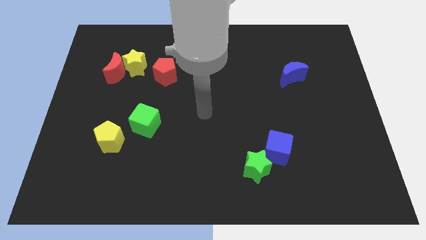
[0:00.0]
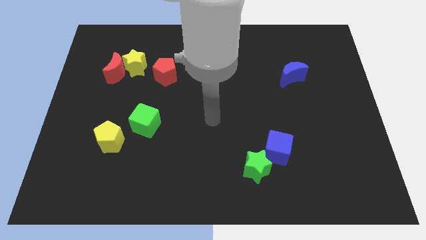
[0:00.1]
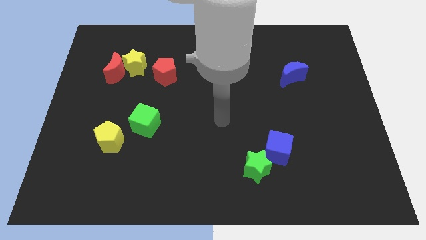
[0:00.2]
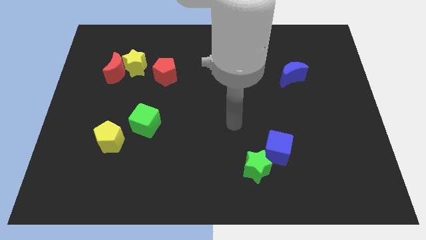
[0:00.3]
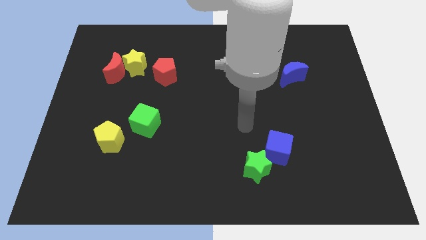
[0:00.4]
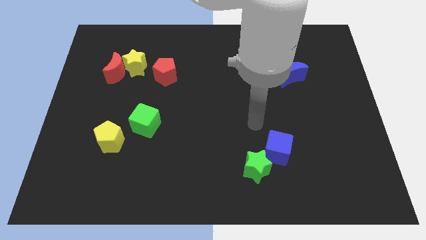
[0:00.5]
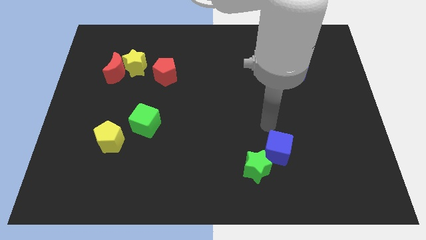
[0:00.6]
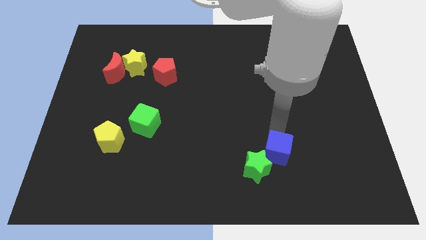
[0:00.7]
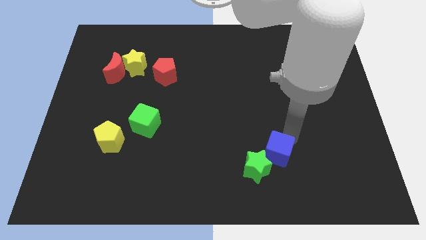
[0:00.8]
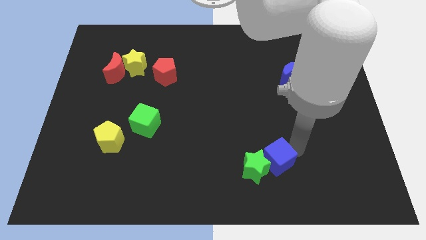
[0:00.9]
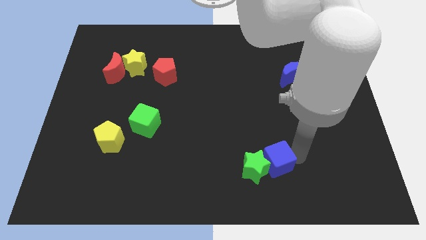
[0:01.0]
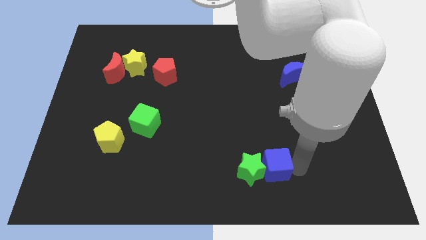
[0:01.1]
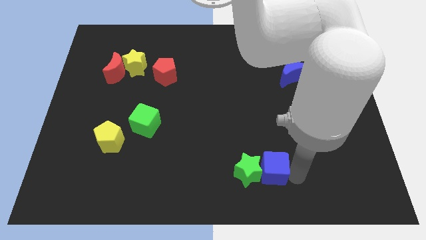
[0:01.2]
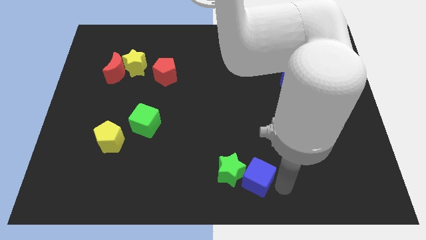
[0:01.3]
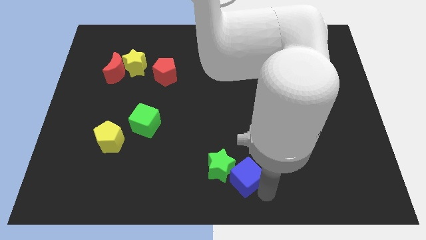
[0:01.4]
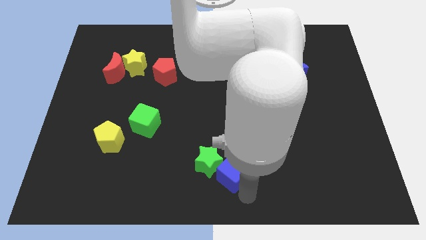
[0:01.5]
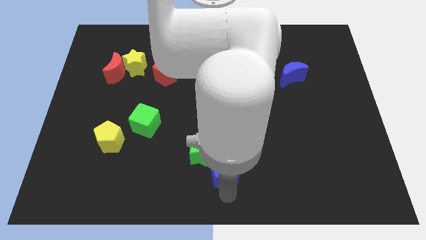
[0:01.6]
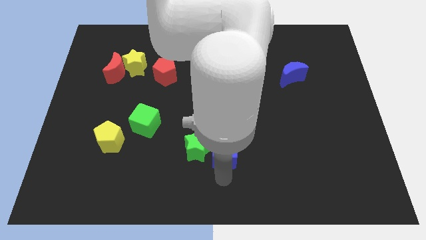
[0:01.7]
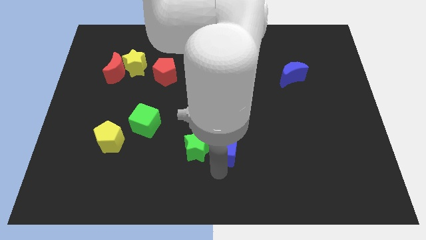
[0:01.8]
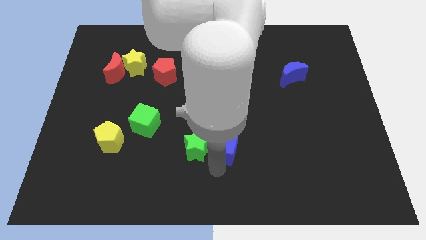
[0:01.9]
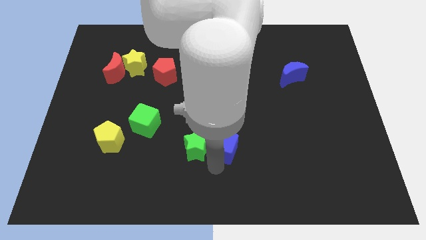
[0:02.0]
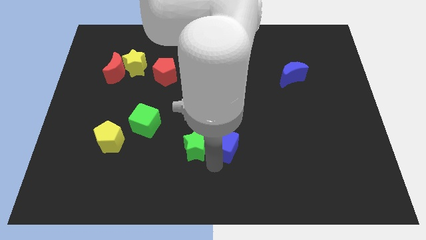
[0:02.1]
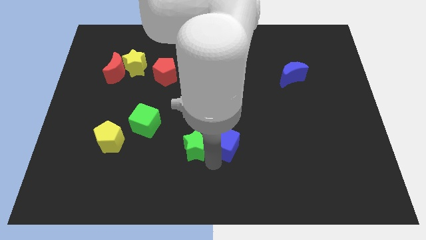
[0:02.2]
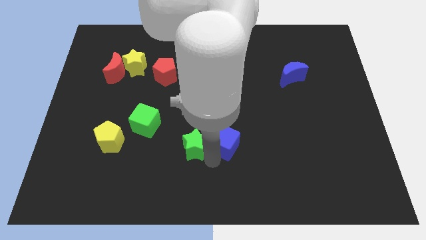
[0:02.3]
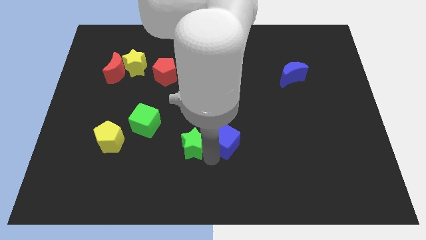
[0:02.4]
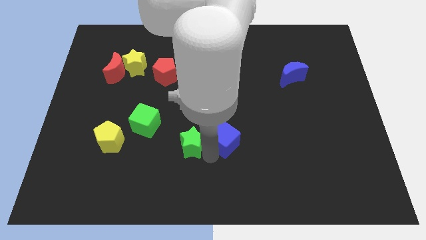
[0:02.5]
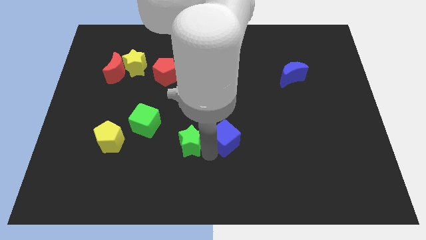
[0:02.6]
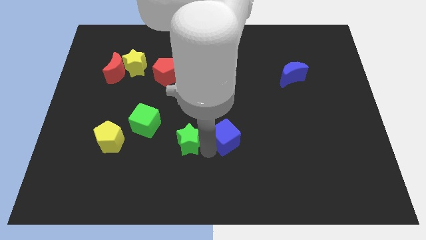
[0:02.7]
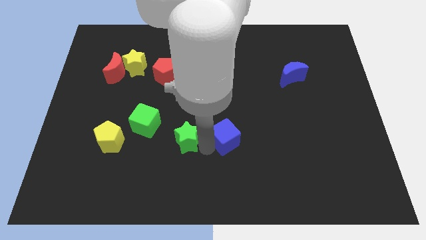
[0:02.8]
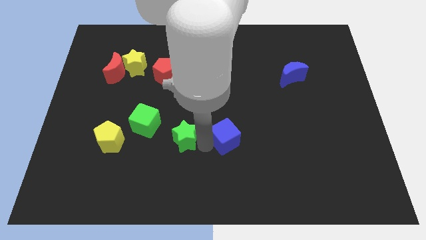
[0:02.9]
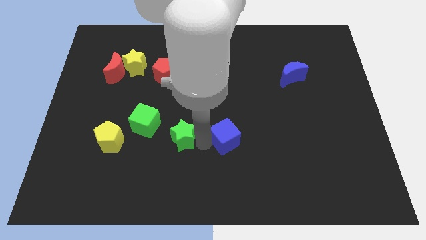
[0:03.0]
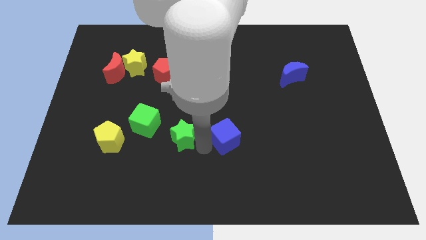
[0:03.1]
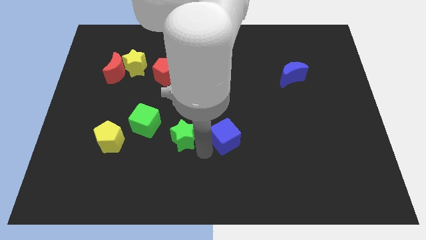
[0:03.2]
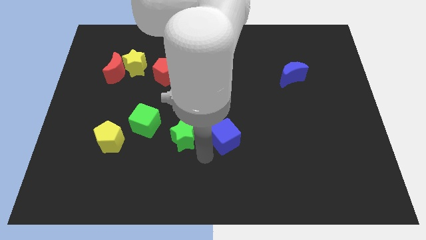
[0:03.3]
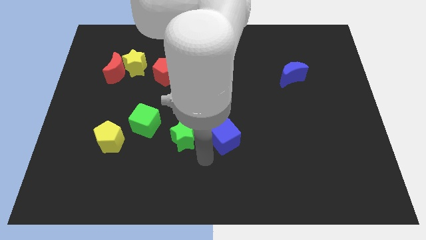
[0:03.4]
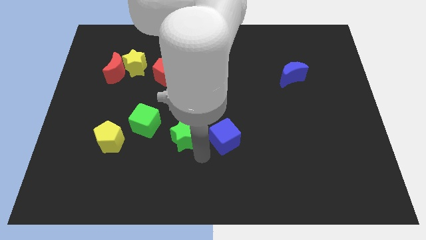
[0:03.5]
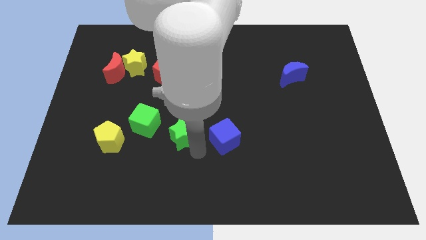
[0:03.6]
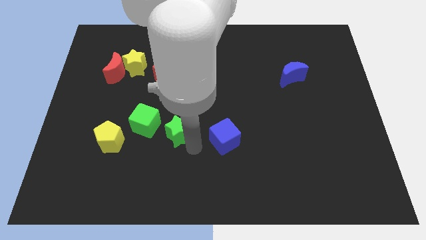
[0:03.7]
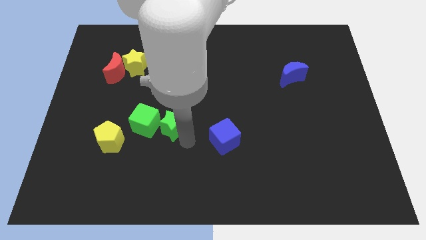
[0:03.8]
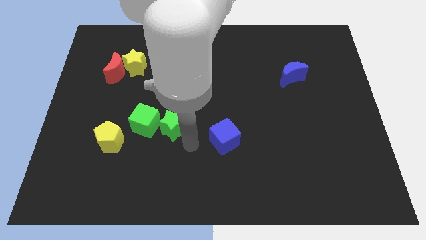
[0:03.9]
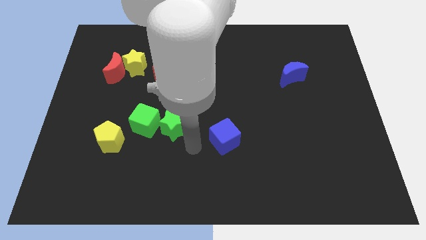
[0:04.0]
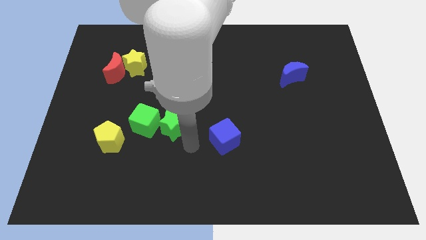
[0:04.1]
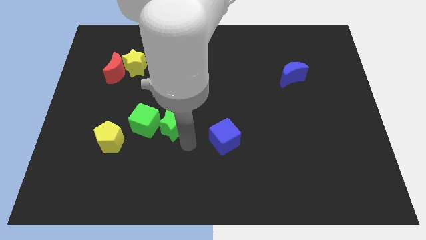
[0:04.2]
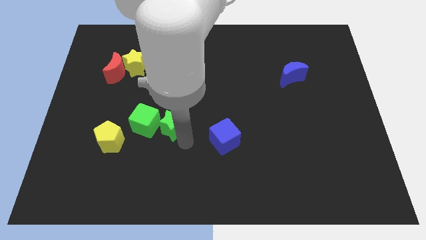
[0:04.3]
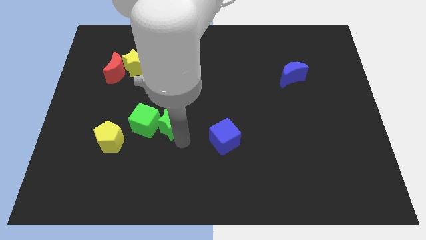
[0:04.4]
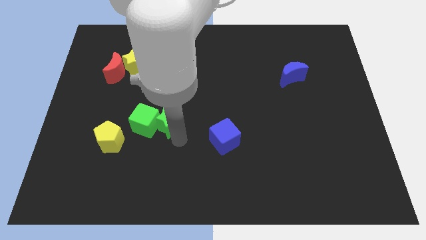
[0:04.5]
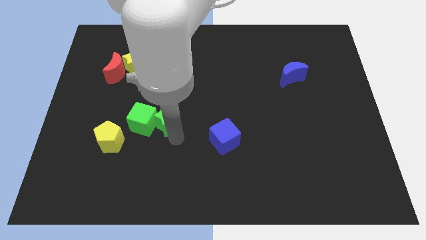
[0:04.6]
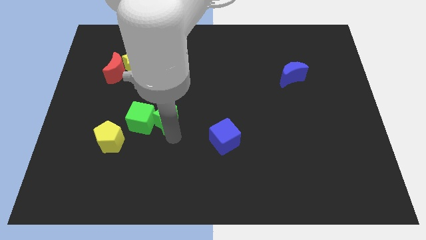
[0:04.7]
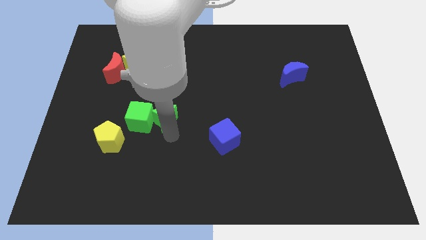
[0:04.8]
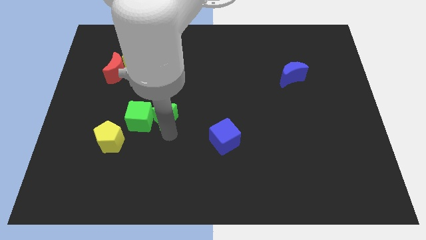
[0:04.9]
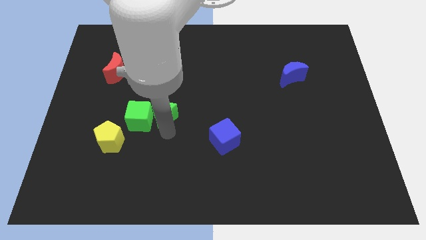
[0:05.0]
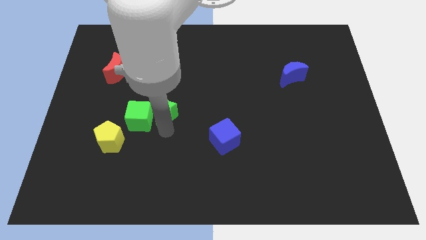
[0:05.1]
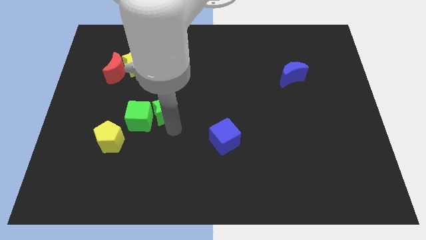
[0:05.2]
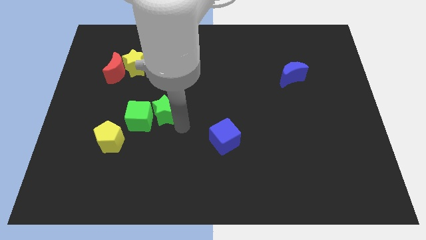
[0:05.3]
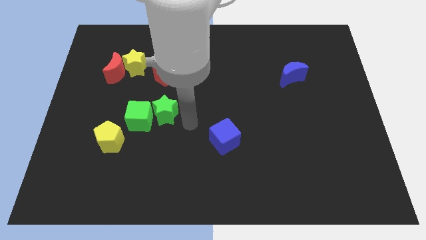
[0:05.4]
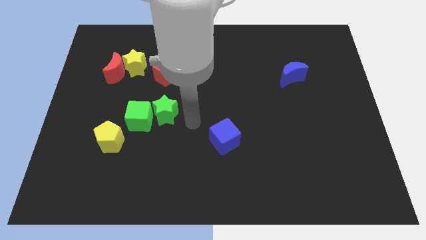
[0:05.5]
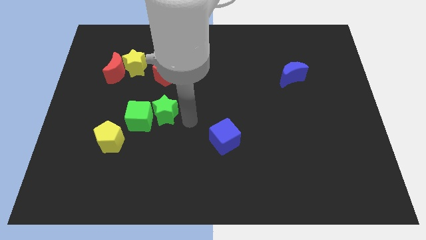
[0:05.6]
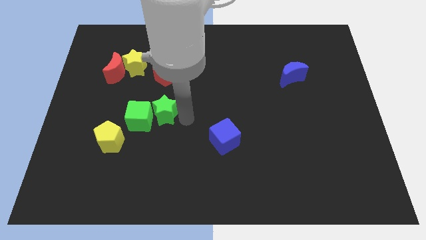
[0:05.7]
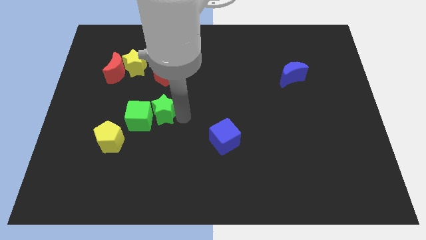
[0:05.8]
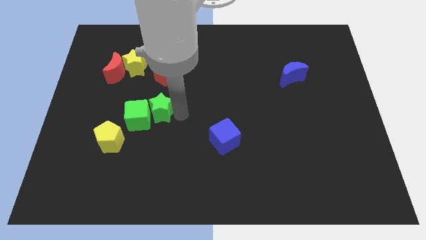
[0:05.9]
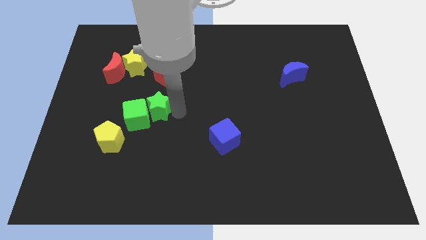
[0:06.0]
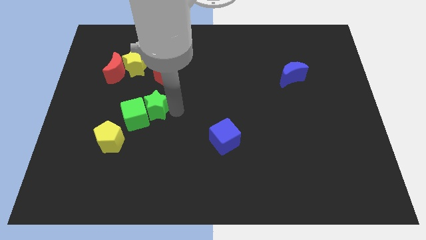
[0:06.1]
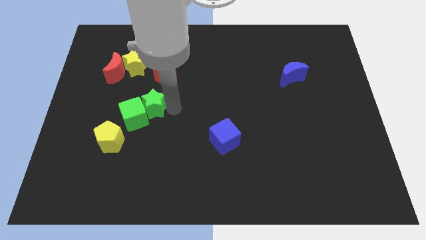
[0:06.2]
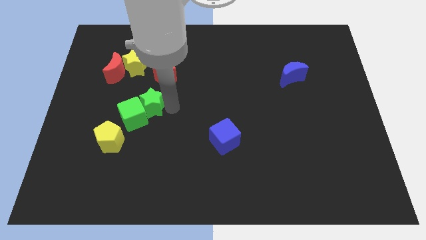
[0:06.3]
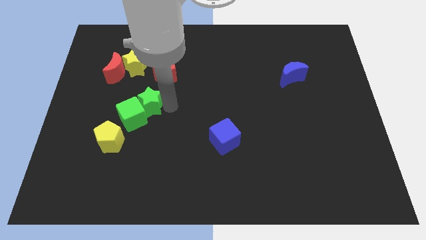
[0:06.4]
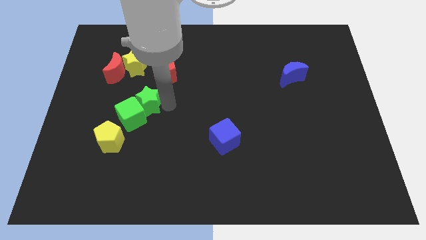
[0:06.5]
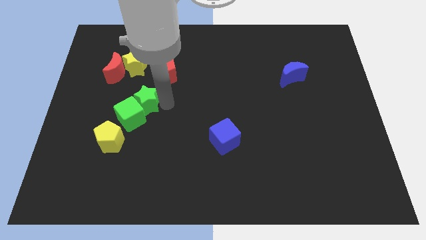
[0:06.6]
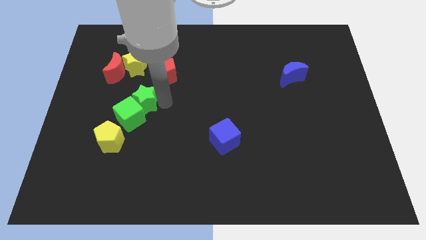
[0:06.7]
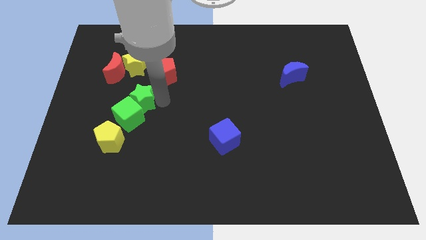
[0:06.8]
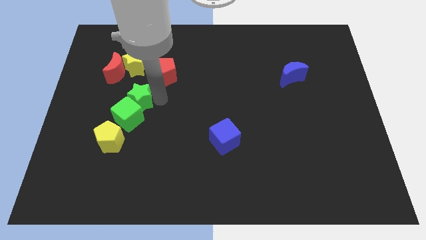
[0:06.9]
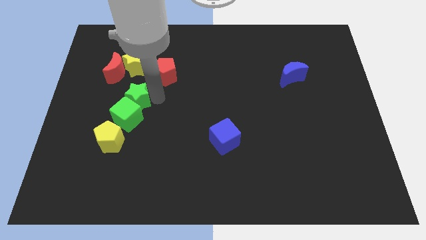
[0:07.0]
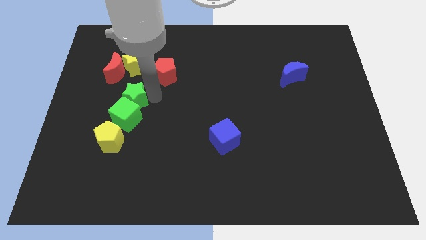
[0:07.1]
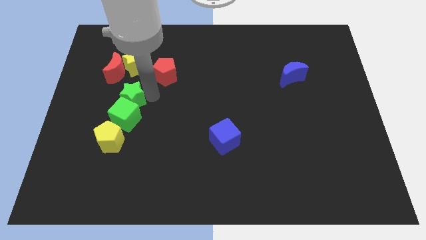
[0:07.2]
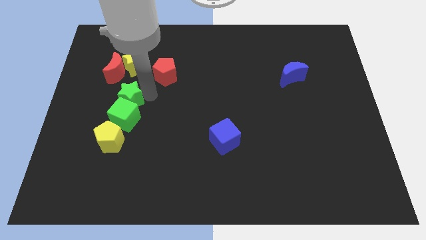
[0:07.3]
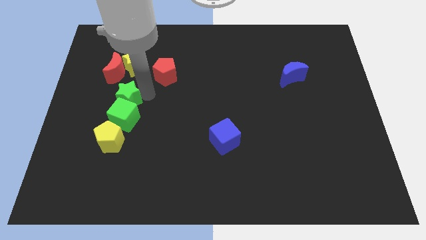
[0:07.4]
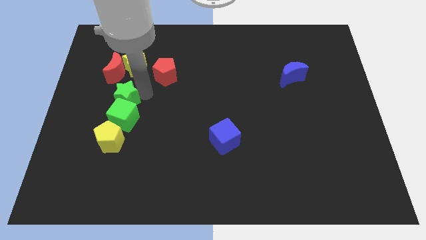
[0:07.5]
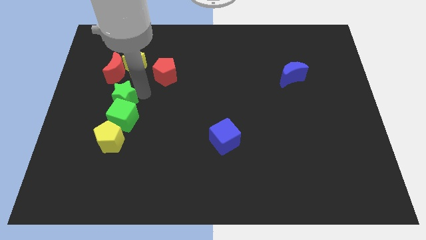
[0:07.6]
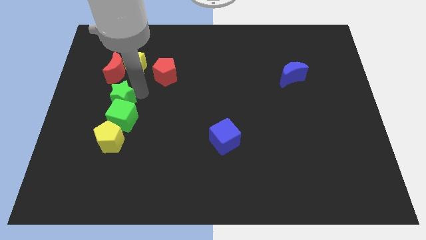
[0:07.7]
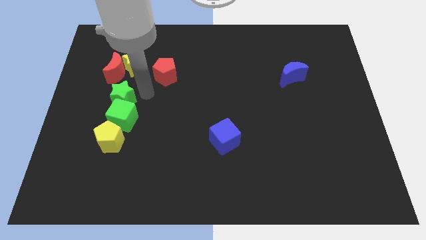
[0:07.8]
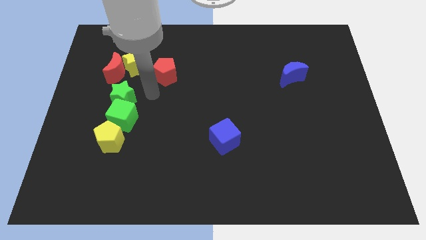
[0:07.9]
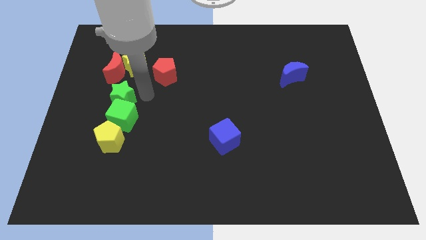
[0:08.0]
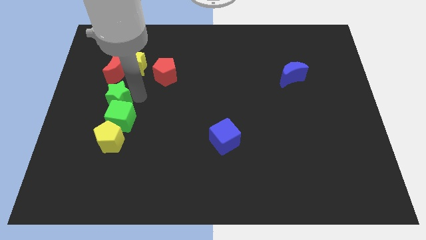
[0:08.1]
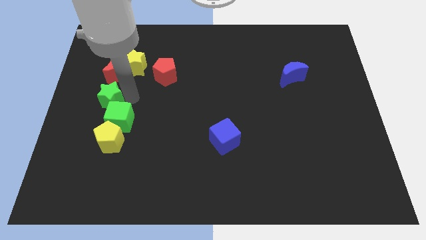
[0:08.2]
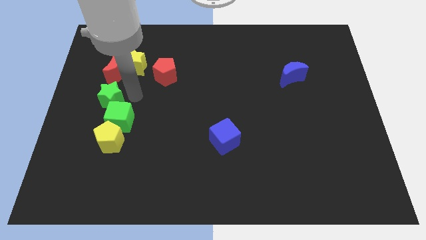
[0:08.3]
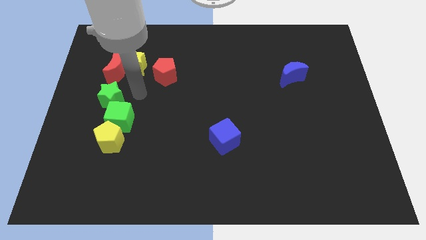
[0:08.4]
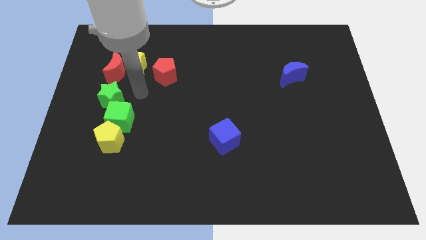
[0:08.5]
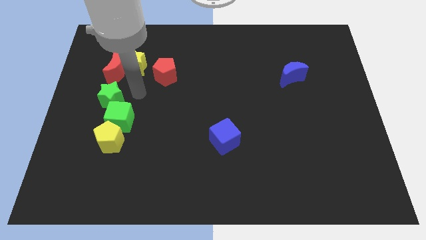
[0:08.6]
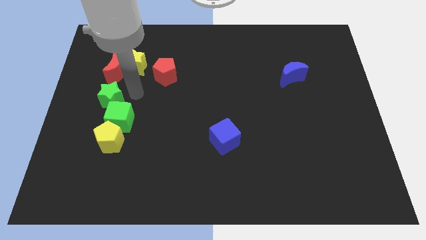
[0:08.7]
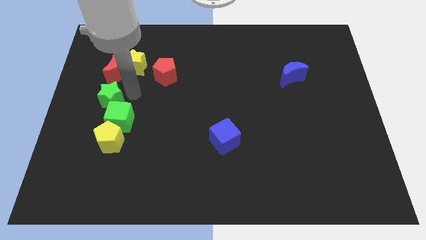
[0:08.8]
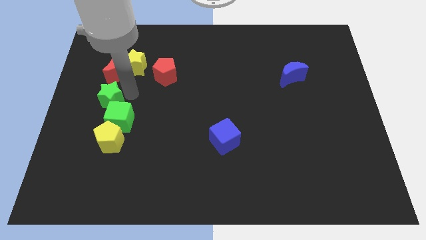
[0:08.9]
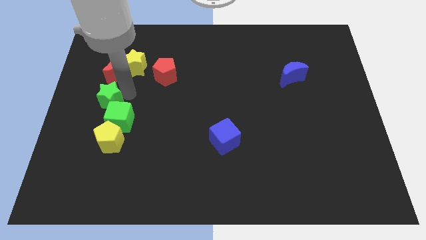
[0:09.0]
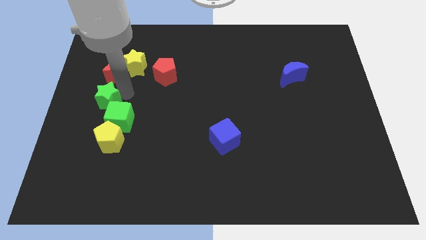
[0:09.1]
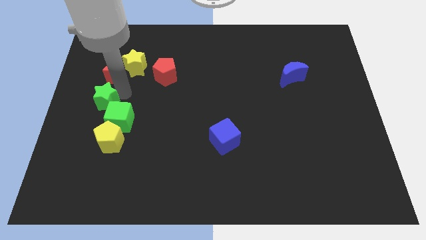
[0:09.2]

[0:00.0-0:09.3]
move the green star to the center left
